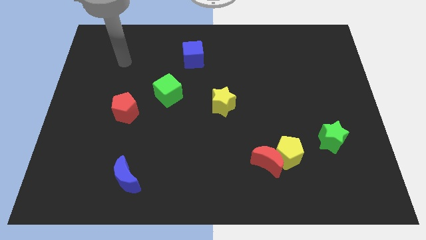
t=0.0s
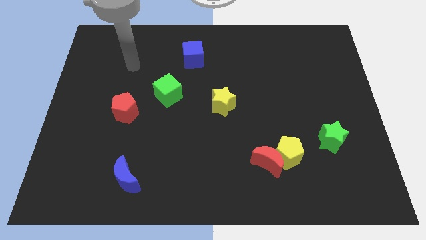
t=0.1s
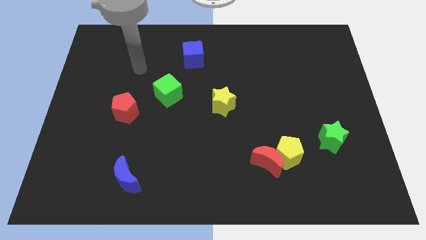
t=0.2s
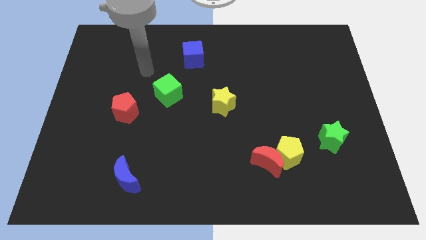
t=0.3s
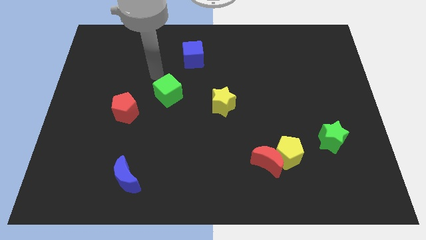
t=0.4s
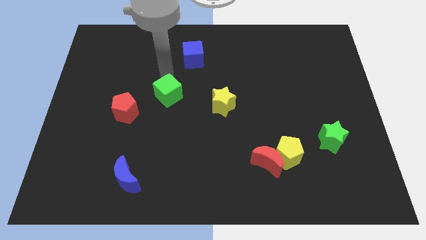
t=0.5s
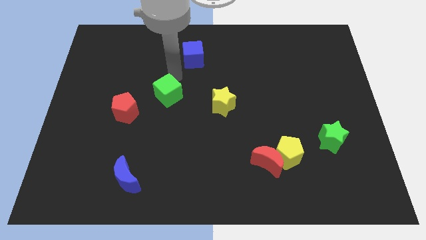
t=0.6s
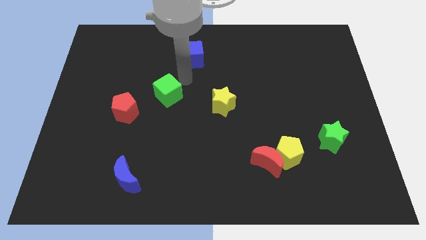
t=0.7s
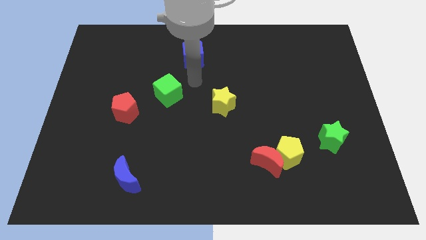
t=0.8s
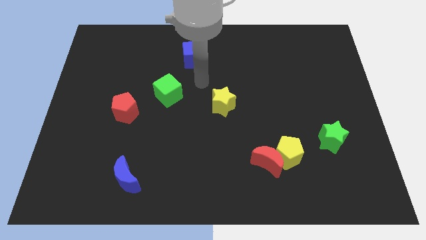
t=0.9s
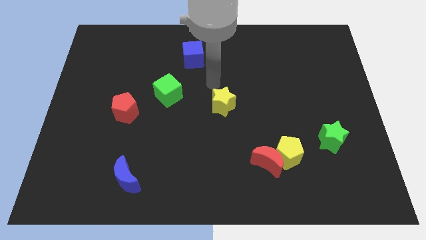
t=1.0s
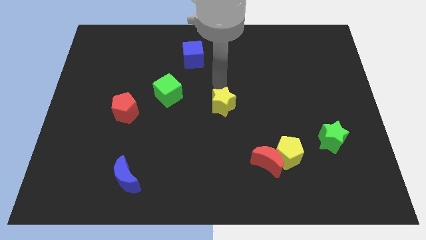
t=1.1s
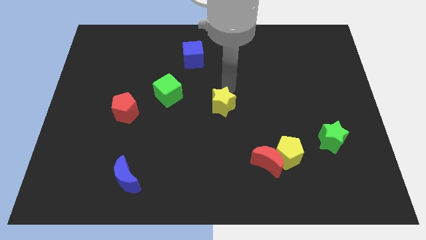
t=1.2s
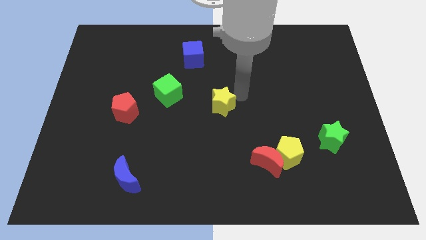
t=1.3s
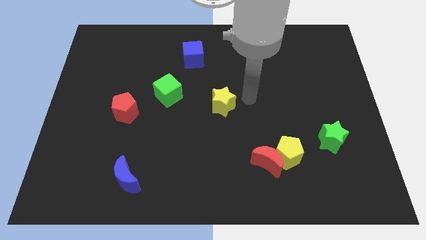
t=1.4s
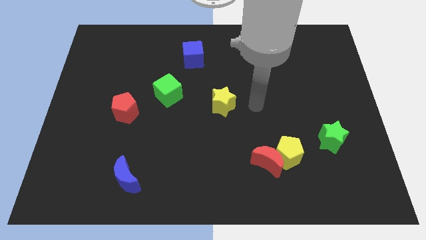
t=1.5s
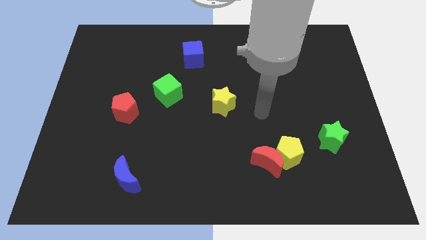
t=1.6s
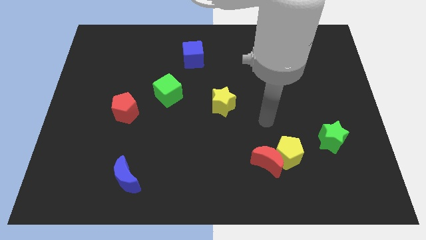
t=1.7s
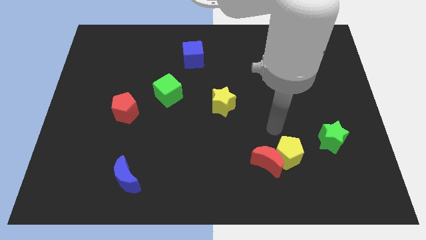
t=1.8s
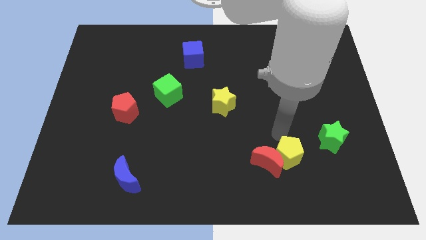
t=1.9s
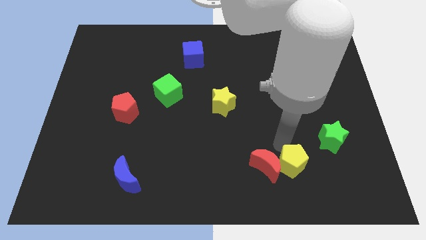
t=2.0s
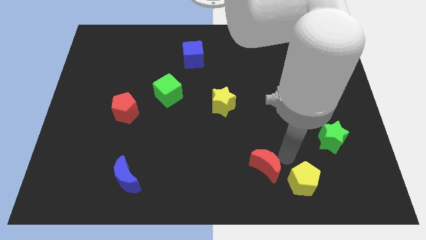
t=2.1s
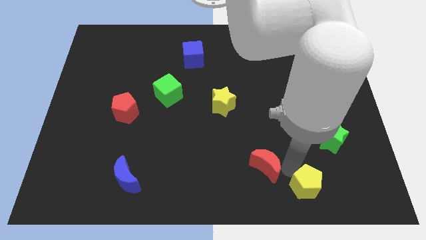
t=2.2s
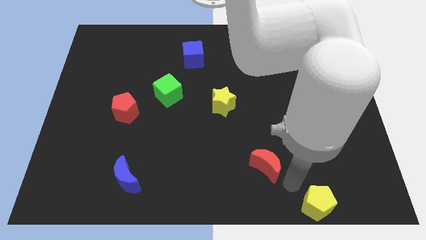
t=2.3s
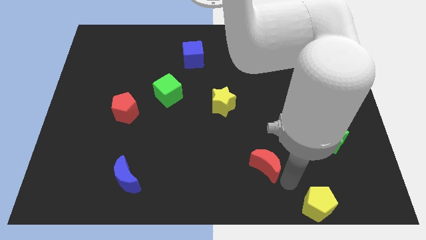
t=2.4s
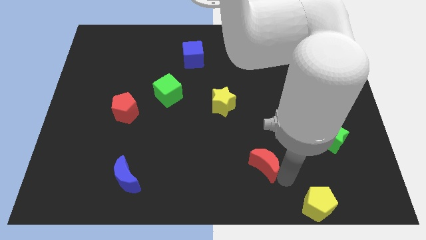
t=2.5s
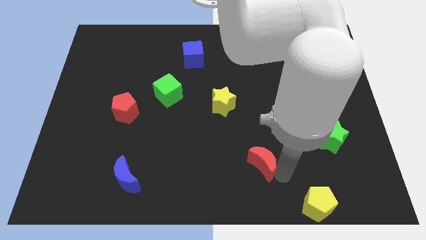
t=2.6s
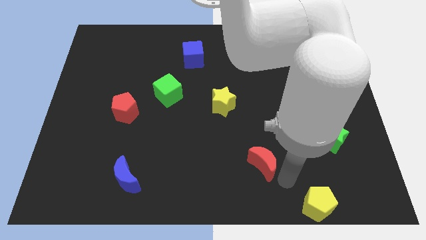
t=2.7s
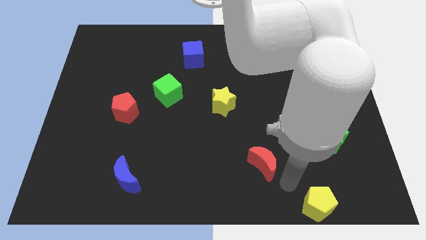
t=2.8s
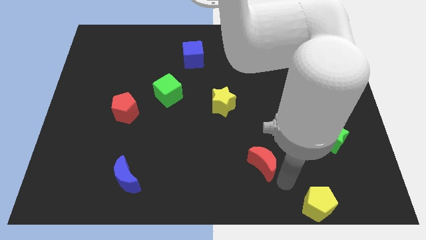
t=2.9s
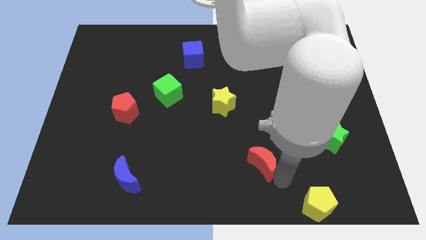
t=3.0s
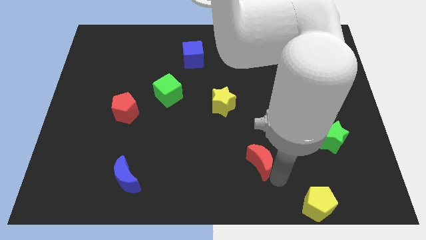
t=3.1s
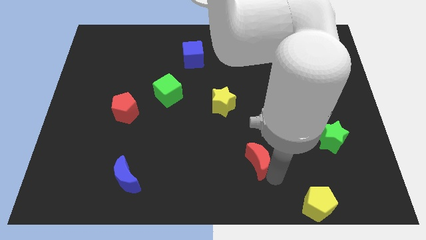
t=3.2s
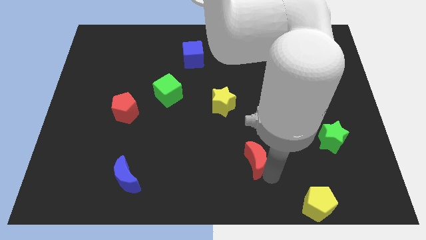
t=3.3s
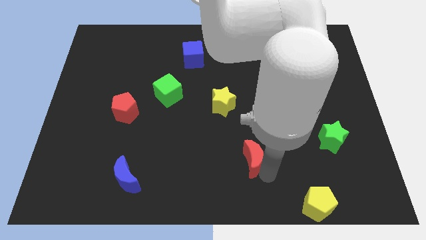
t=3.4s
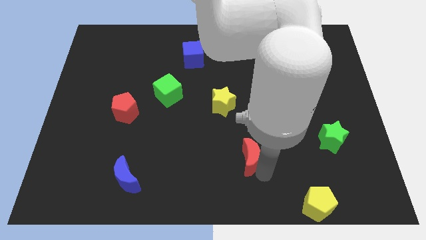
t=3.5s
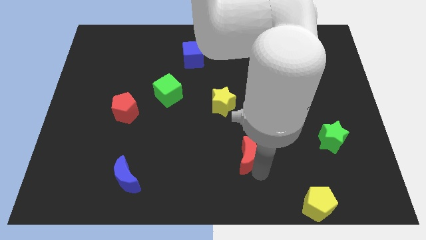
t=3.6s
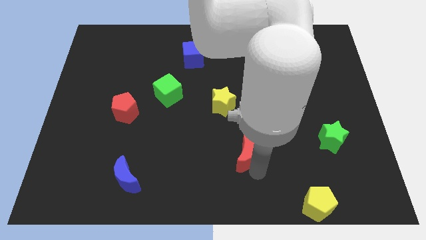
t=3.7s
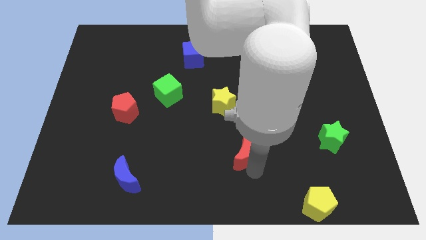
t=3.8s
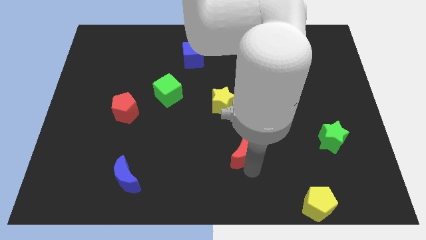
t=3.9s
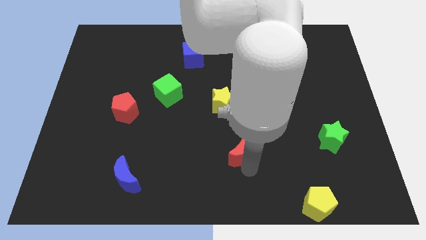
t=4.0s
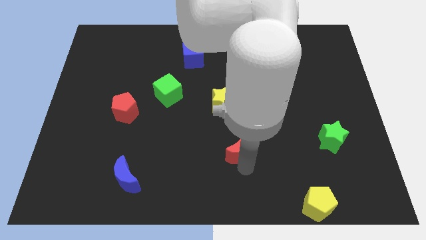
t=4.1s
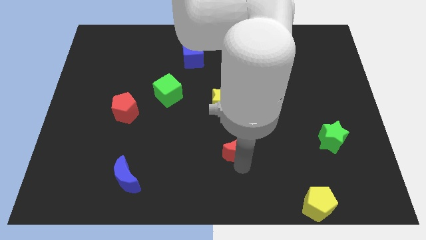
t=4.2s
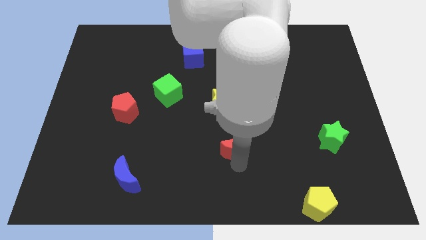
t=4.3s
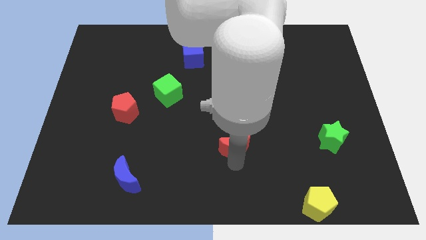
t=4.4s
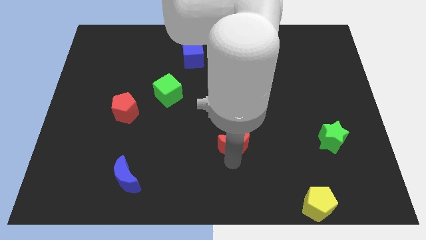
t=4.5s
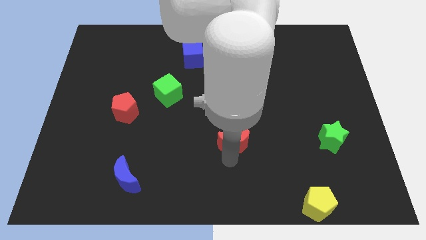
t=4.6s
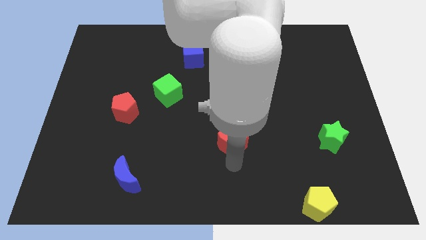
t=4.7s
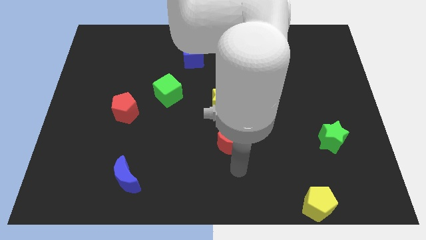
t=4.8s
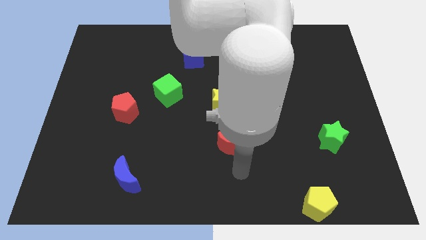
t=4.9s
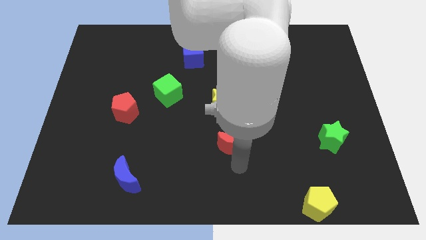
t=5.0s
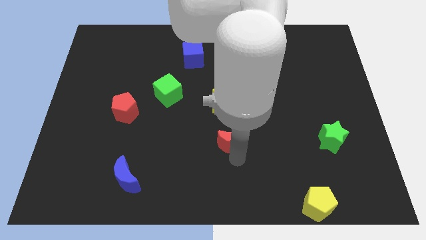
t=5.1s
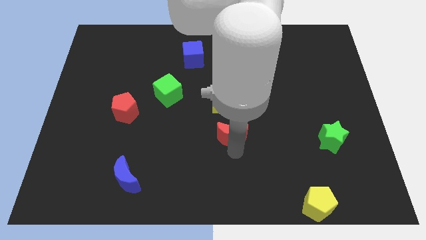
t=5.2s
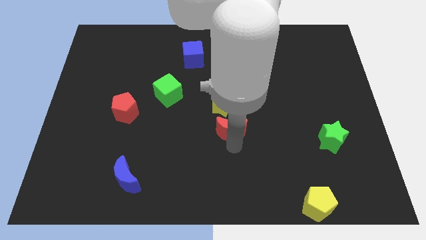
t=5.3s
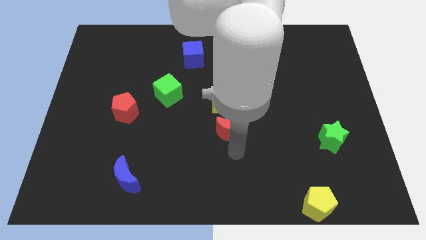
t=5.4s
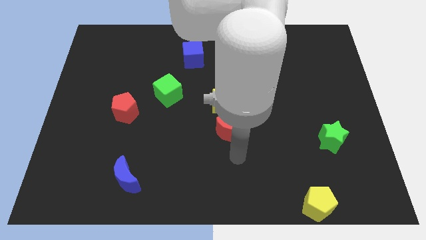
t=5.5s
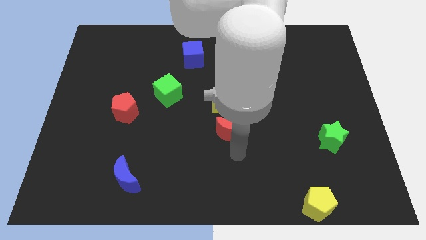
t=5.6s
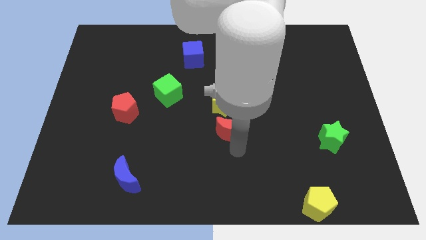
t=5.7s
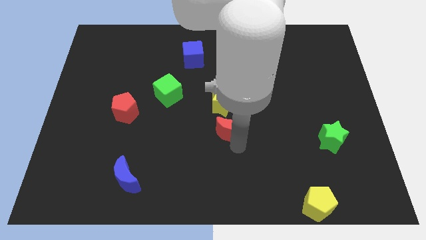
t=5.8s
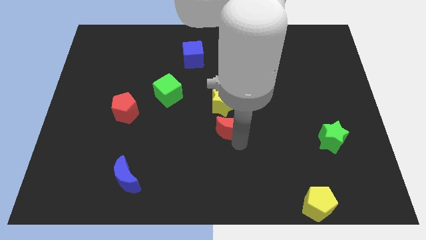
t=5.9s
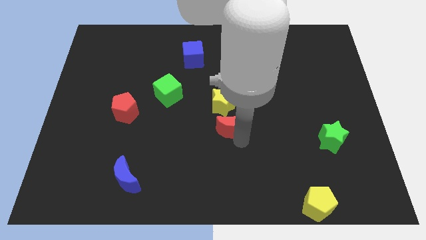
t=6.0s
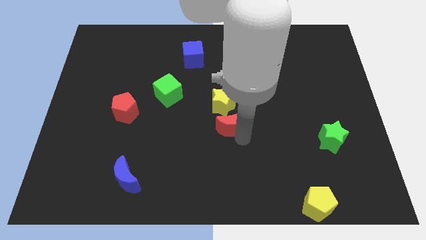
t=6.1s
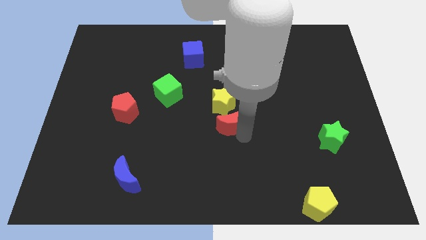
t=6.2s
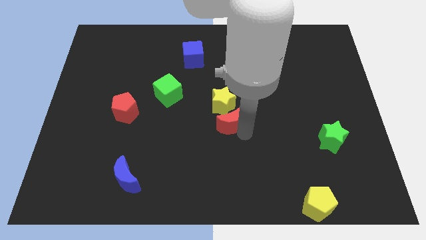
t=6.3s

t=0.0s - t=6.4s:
move the red moon towards the yellow star

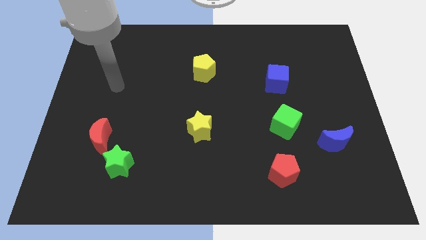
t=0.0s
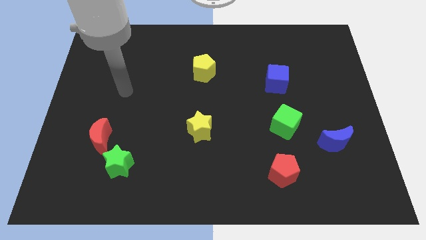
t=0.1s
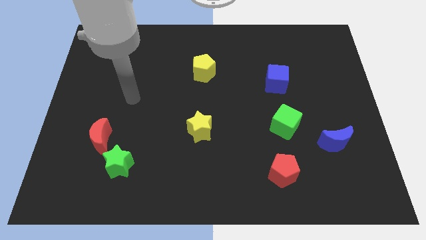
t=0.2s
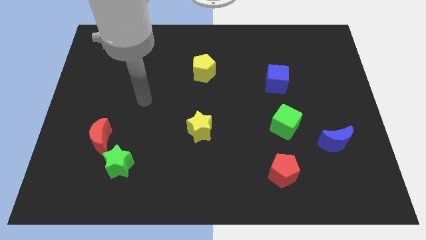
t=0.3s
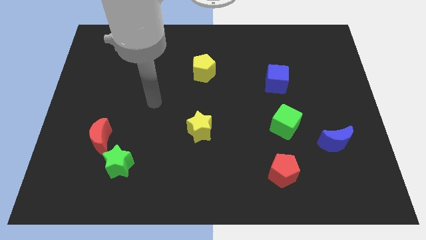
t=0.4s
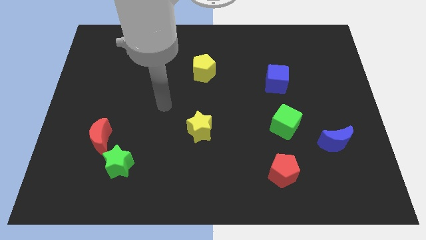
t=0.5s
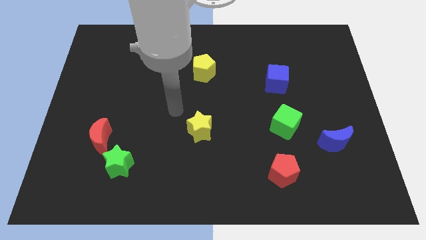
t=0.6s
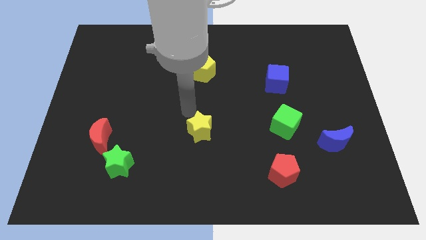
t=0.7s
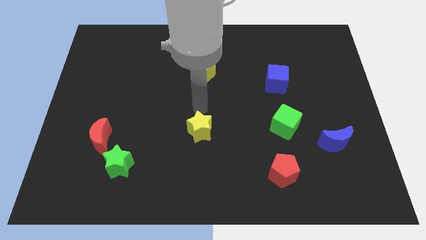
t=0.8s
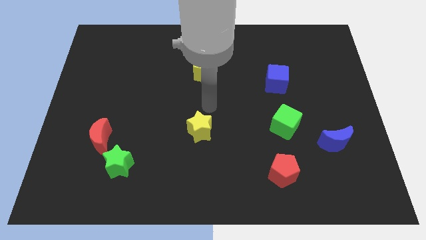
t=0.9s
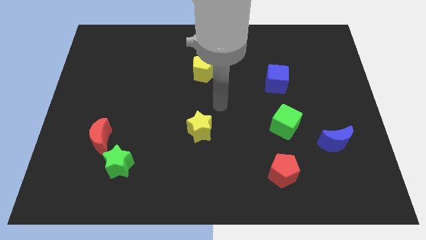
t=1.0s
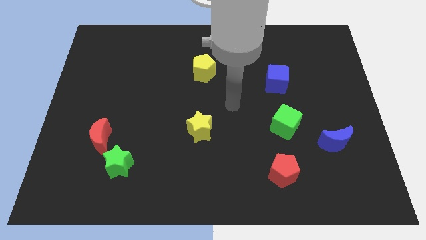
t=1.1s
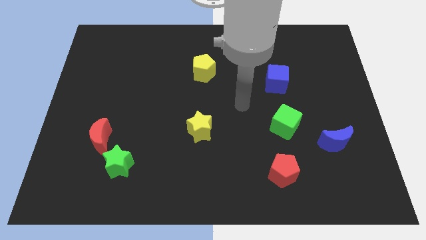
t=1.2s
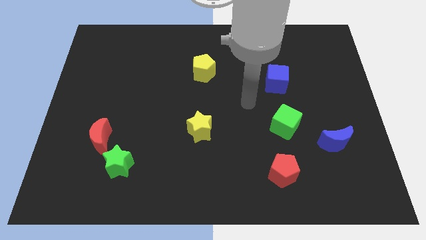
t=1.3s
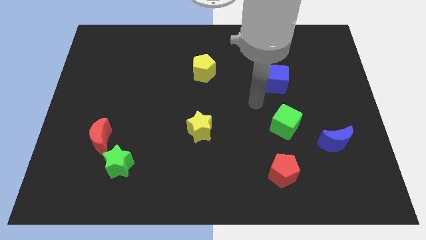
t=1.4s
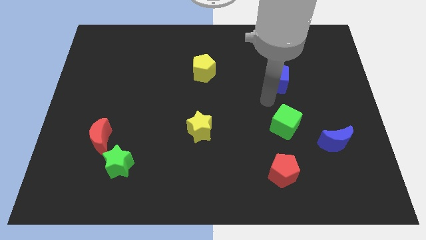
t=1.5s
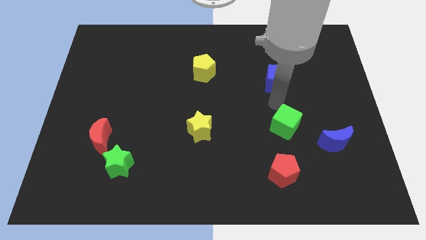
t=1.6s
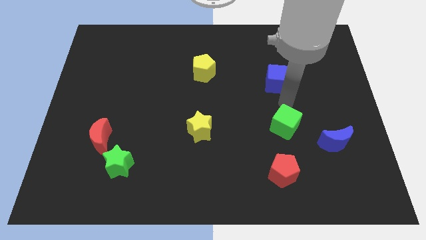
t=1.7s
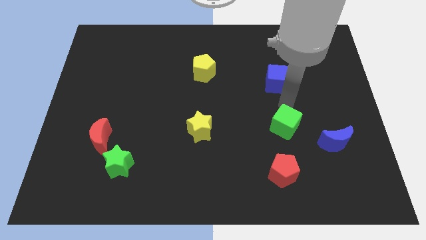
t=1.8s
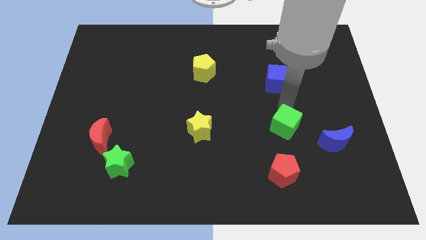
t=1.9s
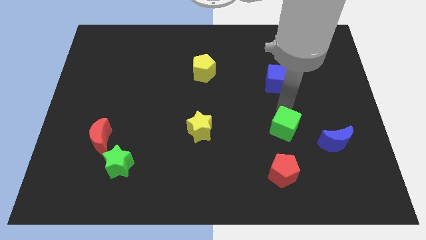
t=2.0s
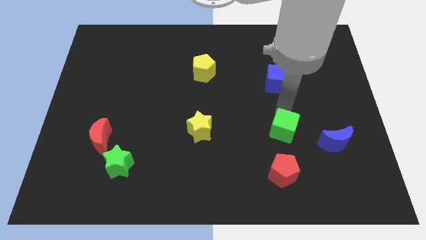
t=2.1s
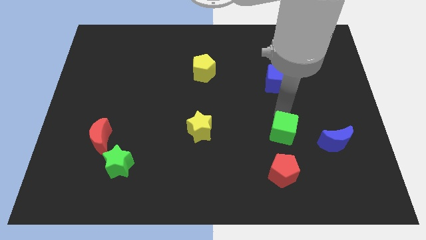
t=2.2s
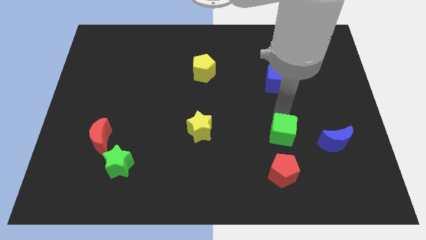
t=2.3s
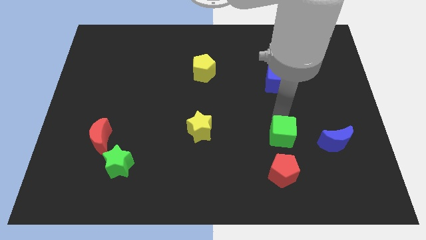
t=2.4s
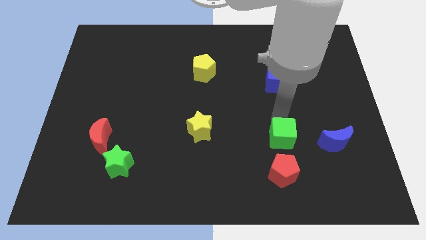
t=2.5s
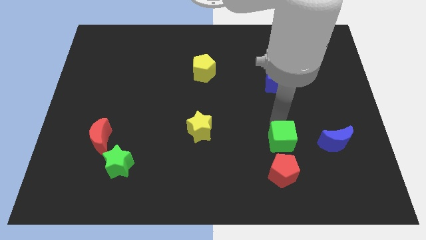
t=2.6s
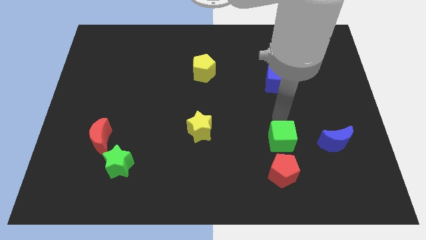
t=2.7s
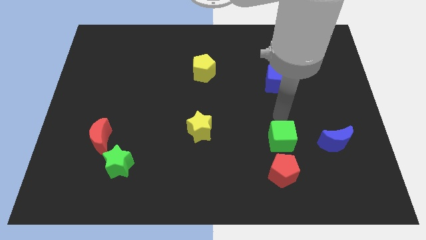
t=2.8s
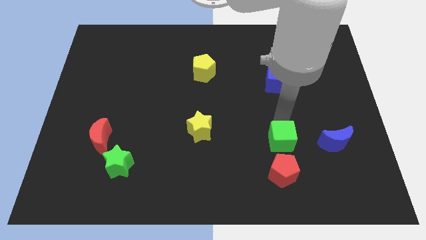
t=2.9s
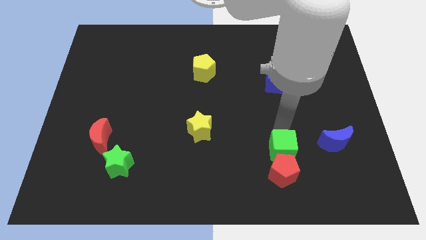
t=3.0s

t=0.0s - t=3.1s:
put the green cube close to the red pentagon
